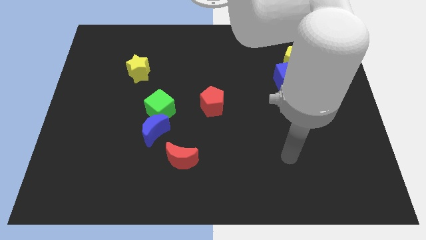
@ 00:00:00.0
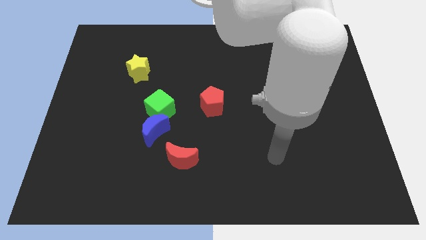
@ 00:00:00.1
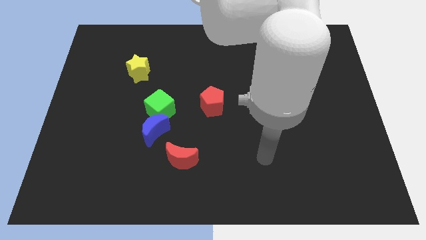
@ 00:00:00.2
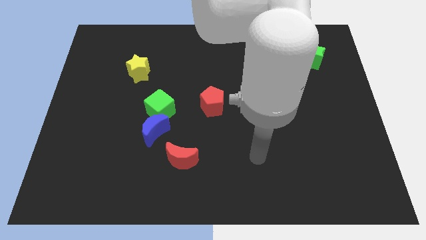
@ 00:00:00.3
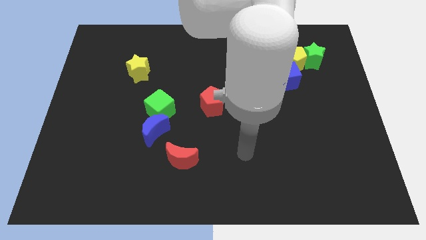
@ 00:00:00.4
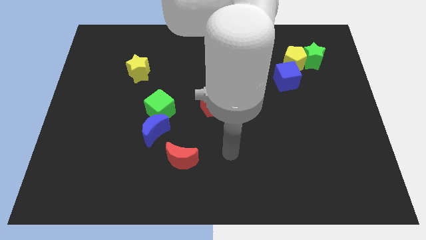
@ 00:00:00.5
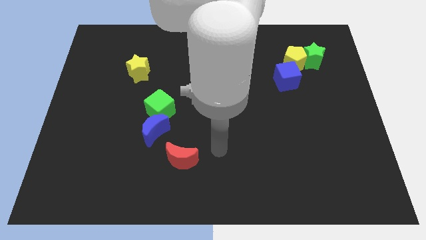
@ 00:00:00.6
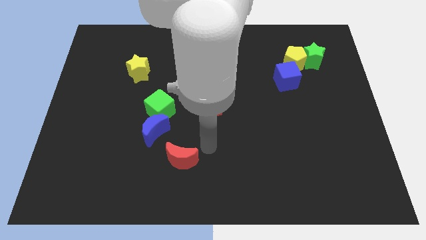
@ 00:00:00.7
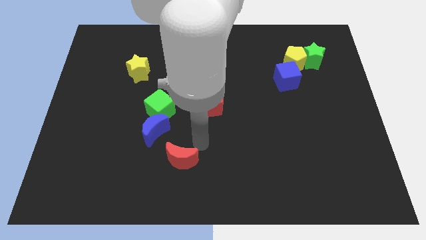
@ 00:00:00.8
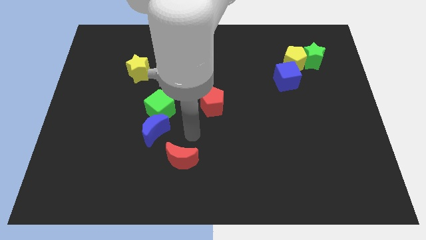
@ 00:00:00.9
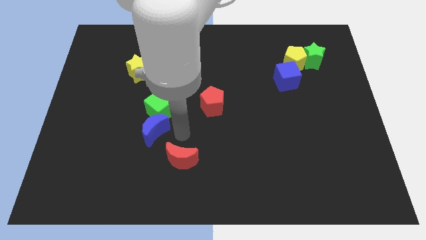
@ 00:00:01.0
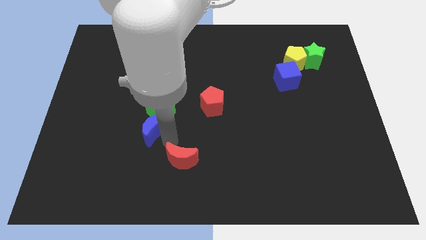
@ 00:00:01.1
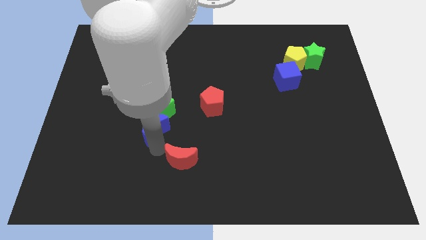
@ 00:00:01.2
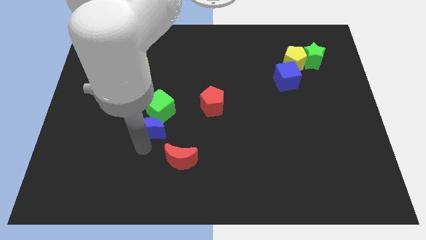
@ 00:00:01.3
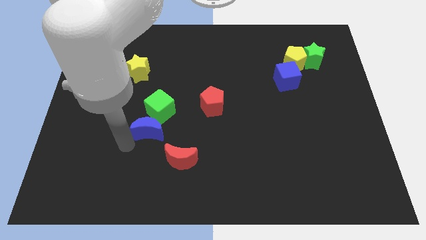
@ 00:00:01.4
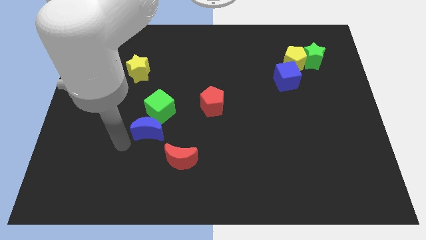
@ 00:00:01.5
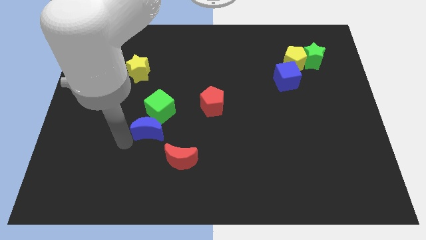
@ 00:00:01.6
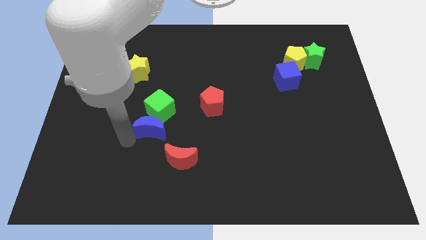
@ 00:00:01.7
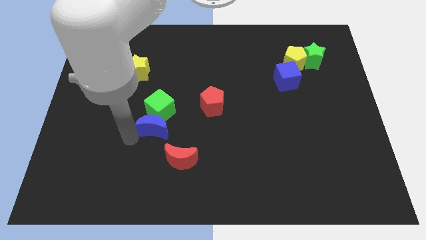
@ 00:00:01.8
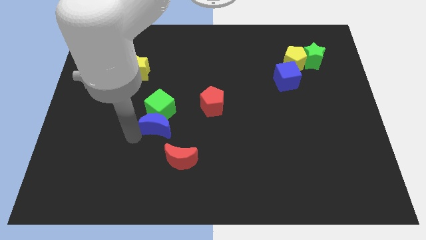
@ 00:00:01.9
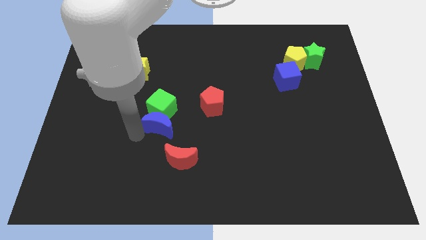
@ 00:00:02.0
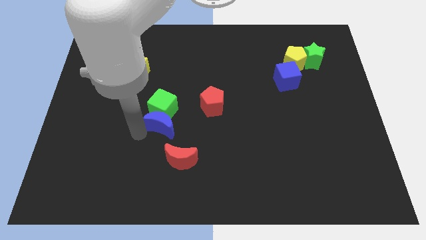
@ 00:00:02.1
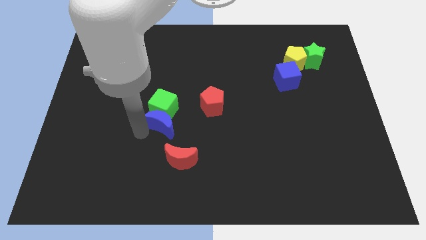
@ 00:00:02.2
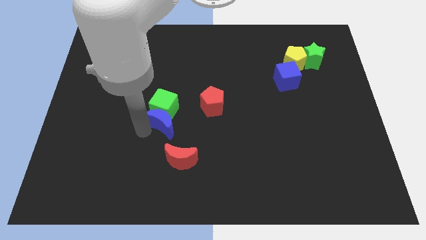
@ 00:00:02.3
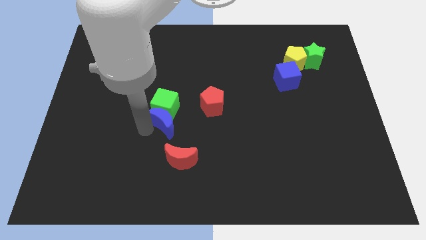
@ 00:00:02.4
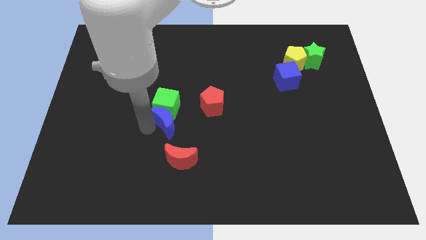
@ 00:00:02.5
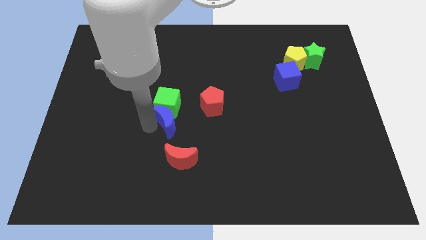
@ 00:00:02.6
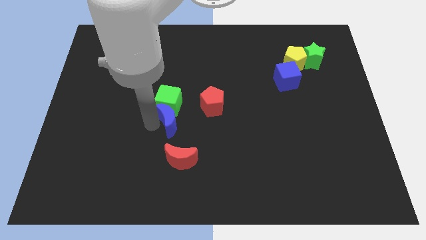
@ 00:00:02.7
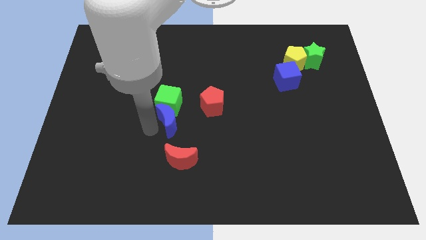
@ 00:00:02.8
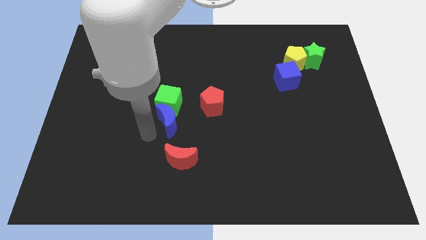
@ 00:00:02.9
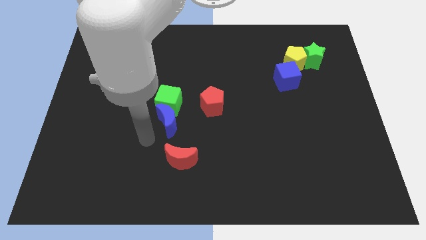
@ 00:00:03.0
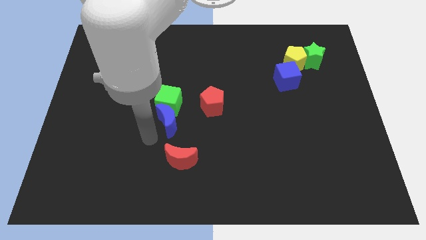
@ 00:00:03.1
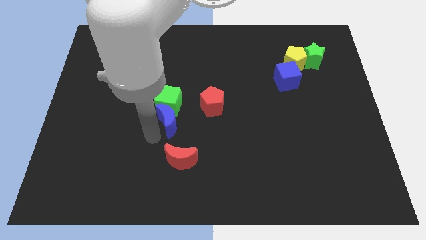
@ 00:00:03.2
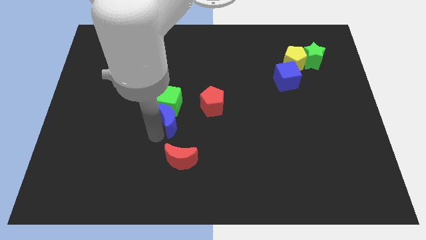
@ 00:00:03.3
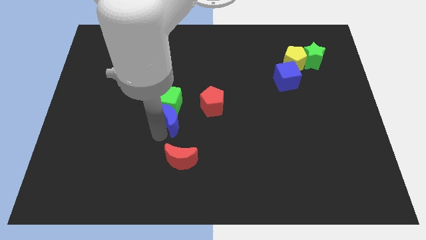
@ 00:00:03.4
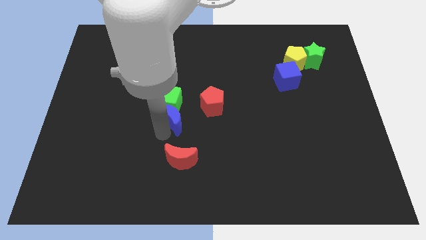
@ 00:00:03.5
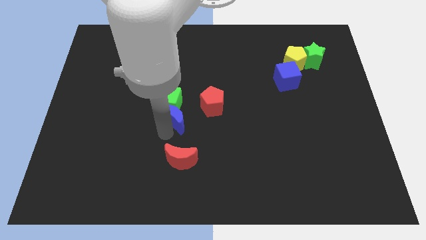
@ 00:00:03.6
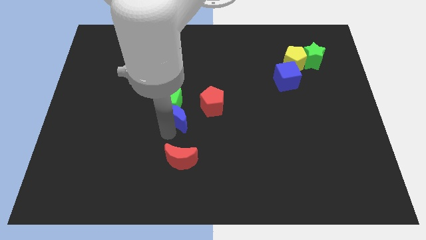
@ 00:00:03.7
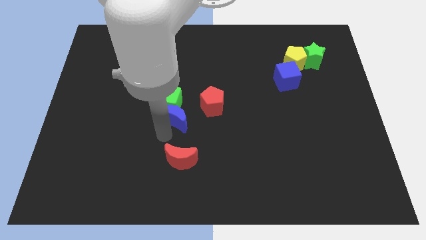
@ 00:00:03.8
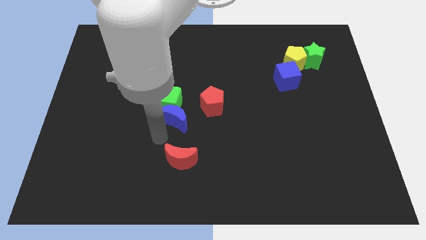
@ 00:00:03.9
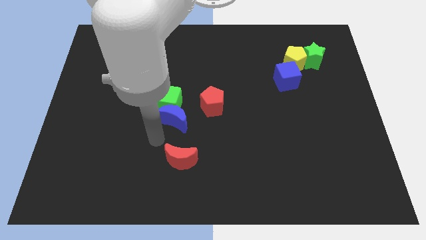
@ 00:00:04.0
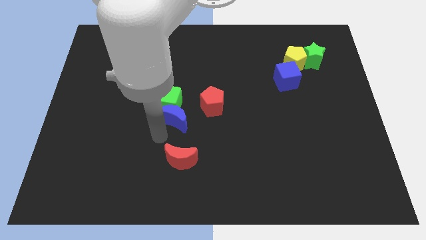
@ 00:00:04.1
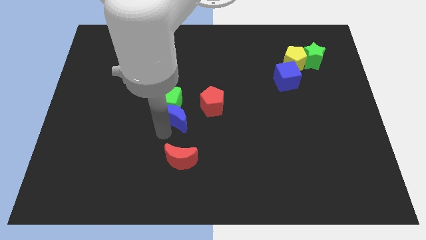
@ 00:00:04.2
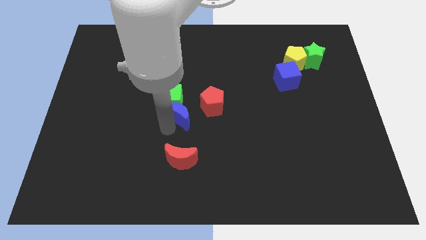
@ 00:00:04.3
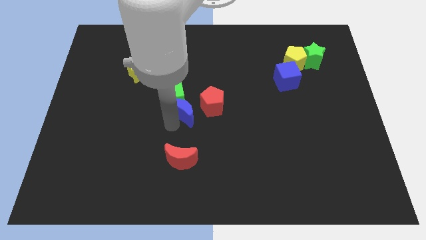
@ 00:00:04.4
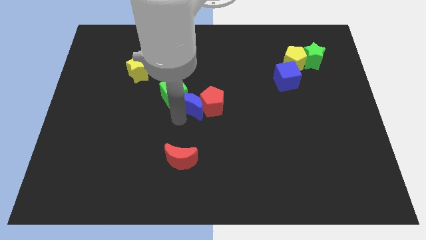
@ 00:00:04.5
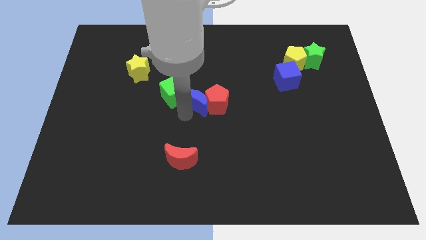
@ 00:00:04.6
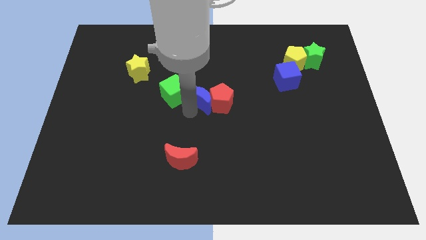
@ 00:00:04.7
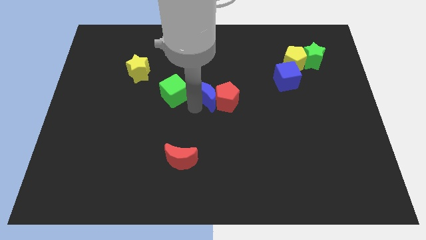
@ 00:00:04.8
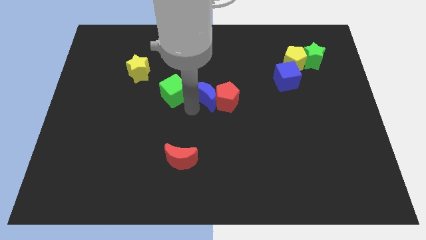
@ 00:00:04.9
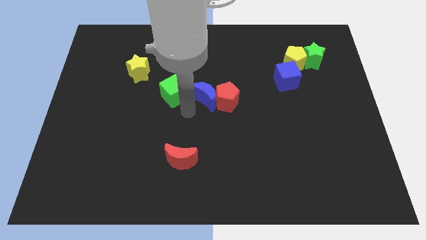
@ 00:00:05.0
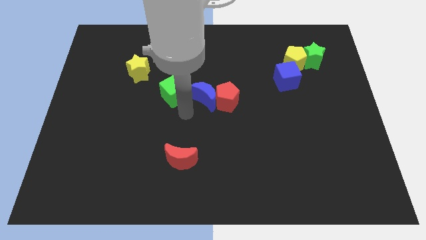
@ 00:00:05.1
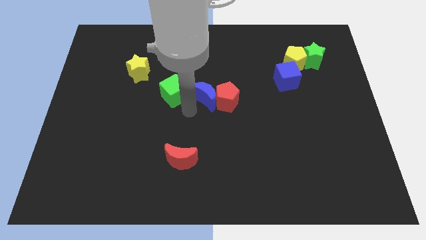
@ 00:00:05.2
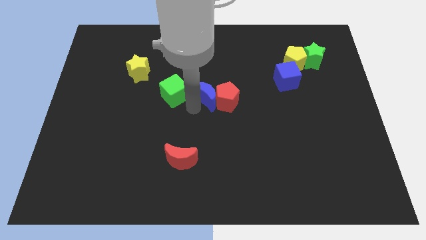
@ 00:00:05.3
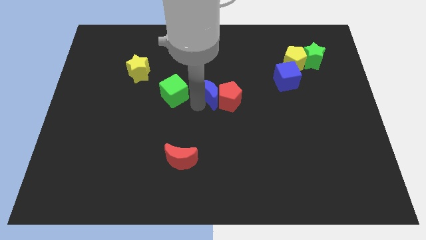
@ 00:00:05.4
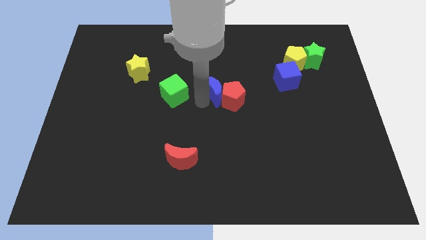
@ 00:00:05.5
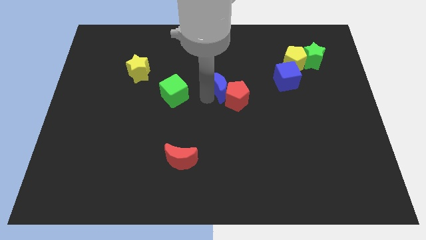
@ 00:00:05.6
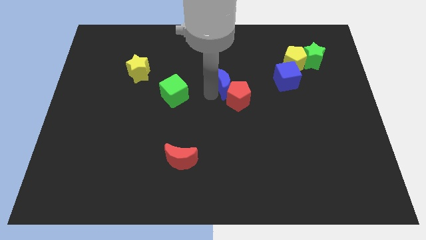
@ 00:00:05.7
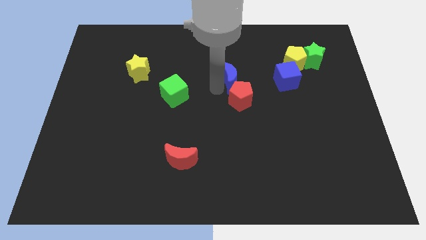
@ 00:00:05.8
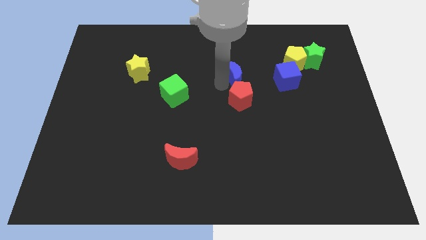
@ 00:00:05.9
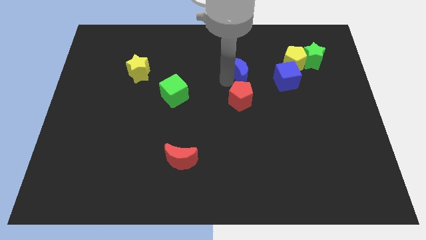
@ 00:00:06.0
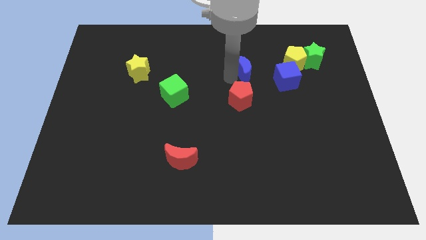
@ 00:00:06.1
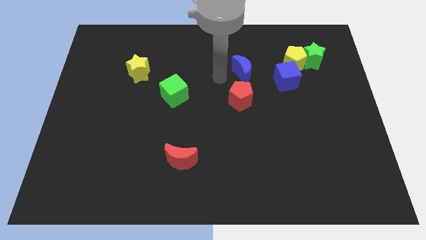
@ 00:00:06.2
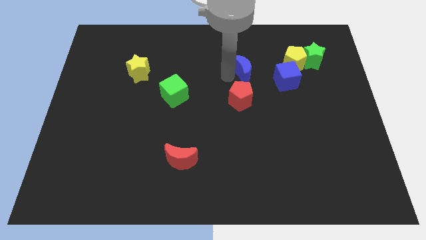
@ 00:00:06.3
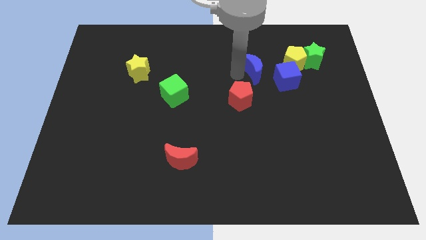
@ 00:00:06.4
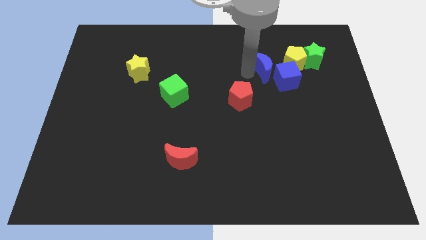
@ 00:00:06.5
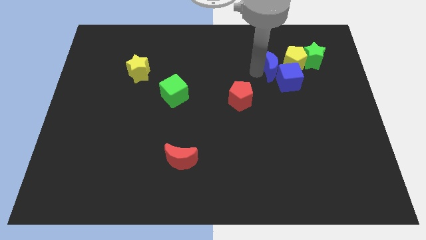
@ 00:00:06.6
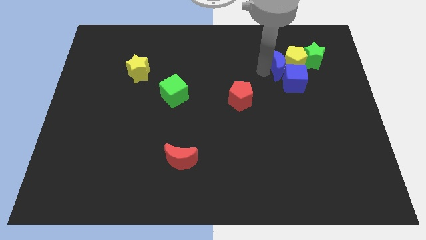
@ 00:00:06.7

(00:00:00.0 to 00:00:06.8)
slide the blue moon towards the yellow pentagon

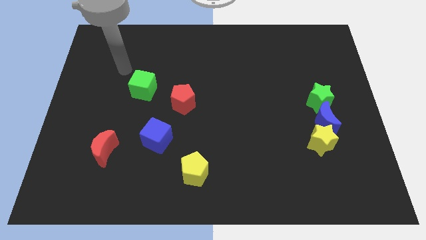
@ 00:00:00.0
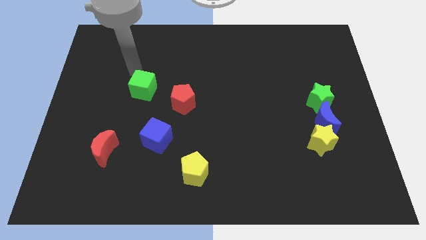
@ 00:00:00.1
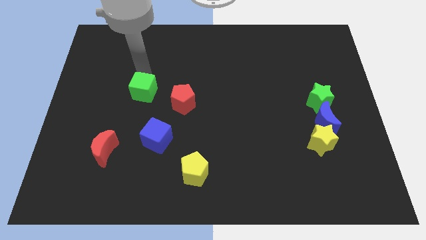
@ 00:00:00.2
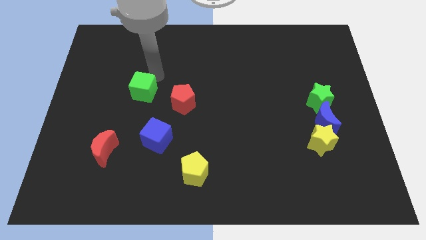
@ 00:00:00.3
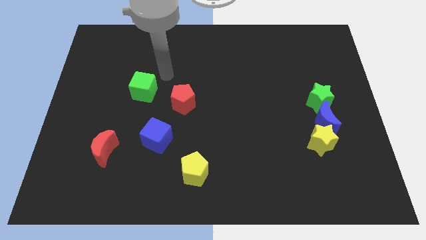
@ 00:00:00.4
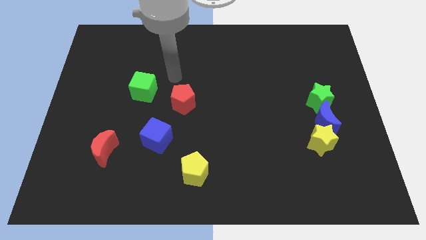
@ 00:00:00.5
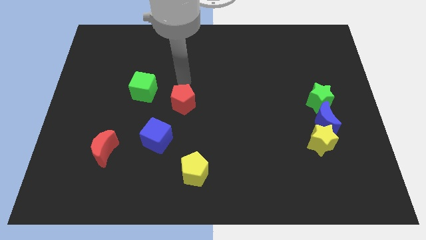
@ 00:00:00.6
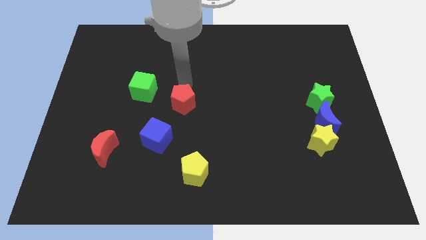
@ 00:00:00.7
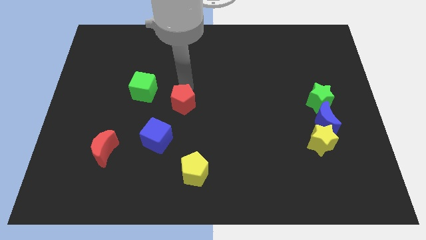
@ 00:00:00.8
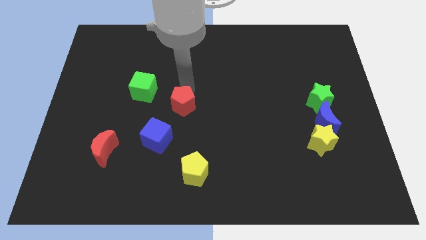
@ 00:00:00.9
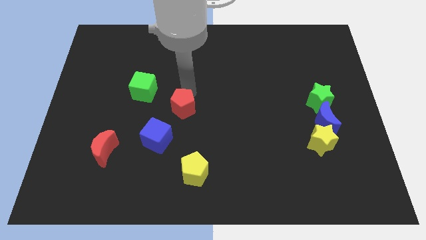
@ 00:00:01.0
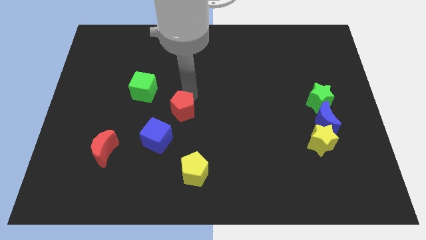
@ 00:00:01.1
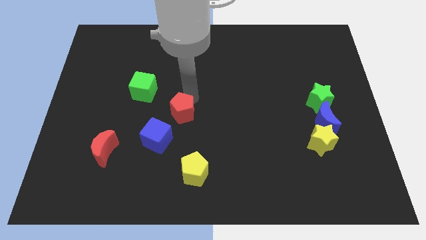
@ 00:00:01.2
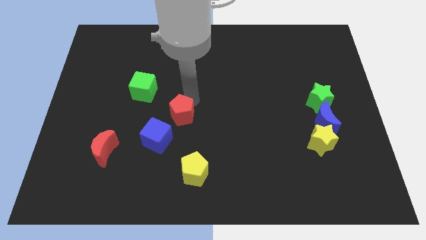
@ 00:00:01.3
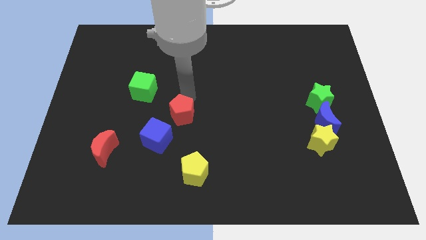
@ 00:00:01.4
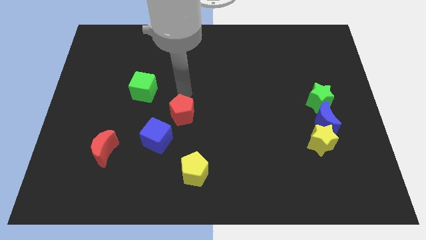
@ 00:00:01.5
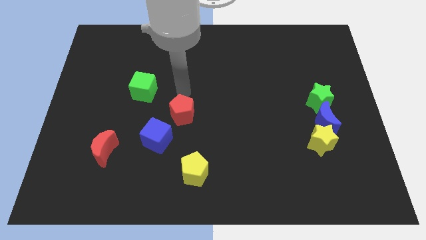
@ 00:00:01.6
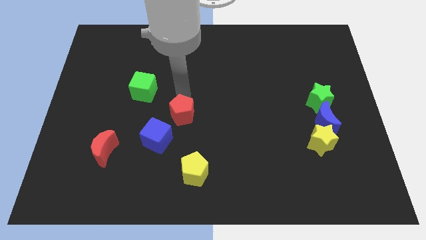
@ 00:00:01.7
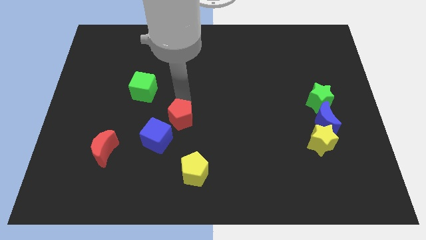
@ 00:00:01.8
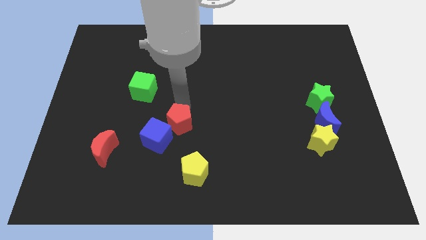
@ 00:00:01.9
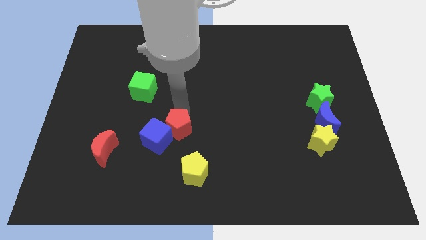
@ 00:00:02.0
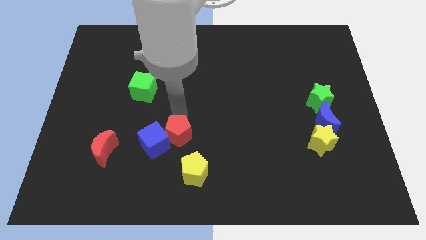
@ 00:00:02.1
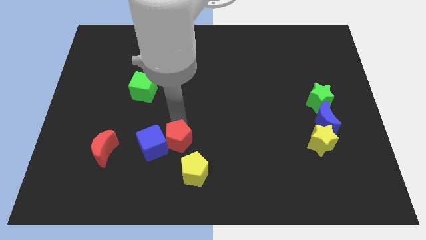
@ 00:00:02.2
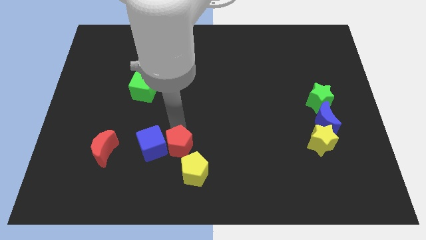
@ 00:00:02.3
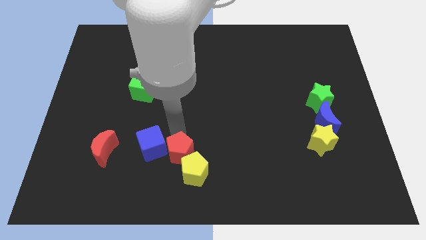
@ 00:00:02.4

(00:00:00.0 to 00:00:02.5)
move the red pentagon close to the yellow pentagon
